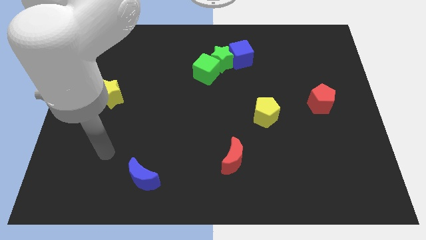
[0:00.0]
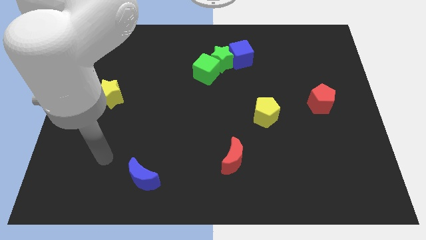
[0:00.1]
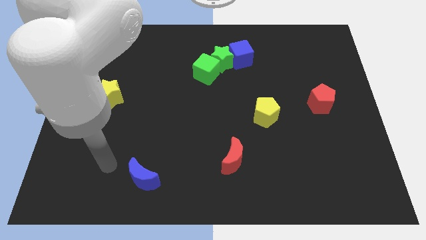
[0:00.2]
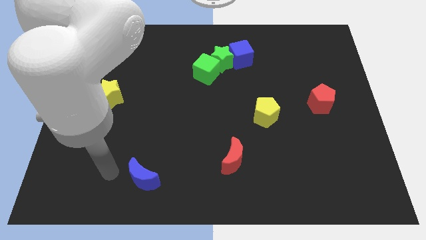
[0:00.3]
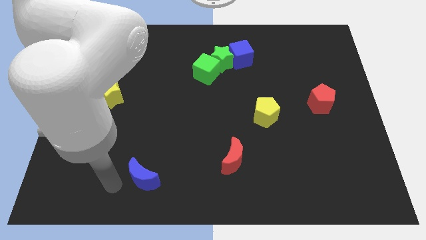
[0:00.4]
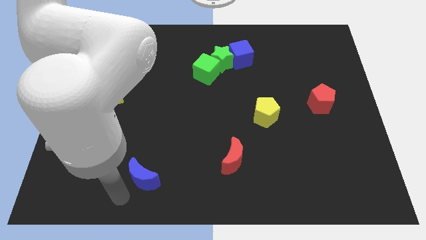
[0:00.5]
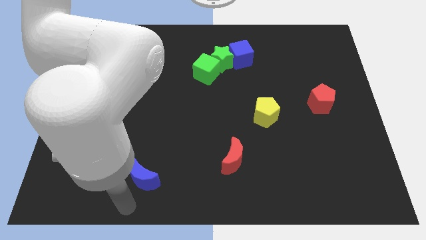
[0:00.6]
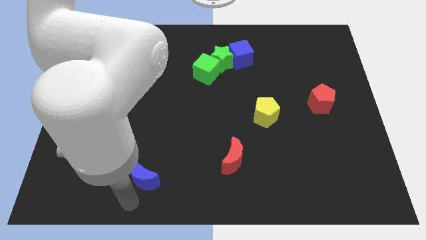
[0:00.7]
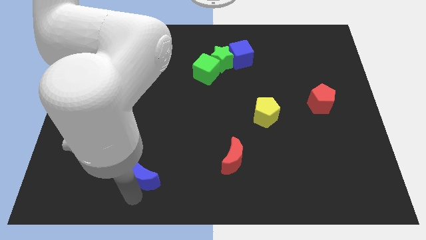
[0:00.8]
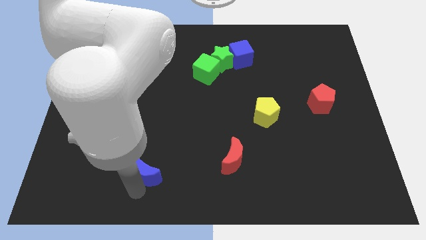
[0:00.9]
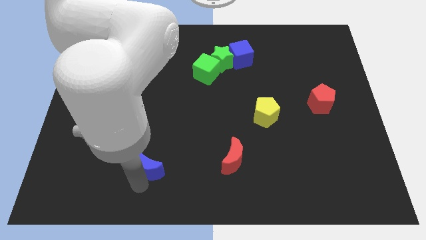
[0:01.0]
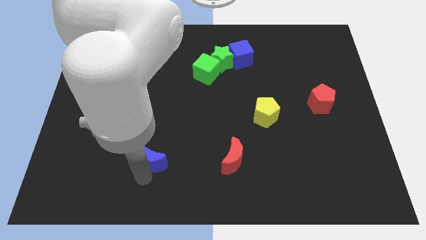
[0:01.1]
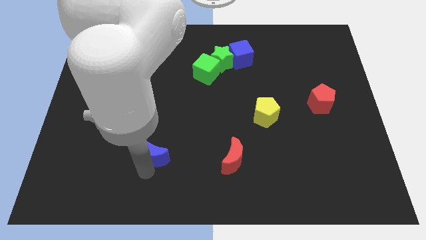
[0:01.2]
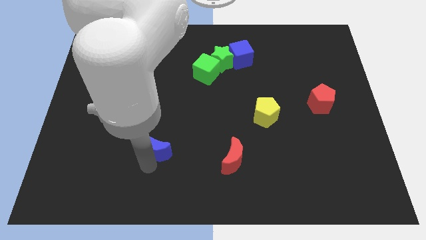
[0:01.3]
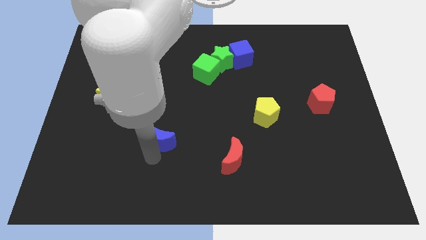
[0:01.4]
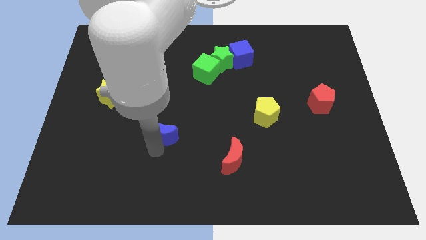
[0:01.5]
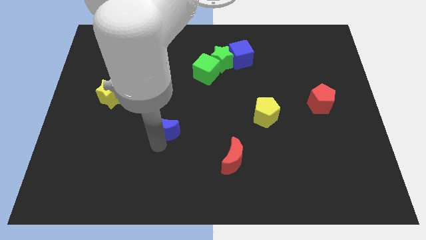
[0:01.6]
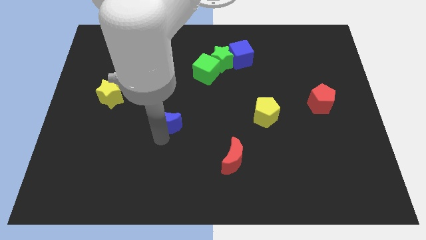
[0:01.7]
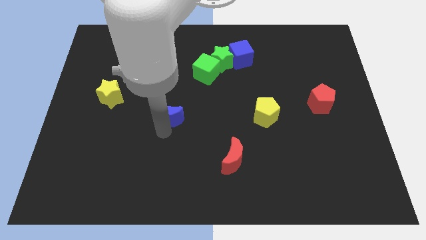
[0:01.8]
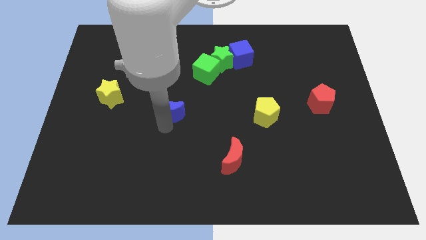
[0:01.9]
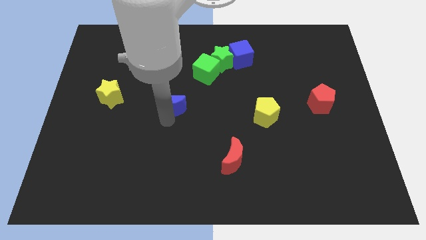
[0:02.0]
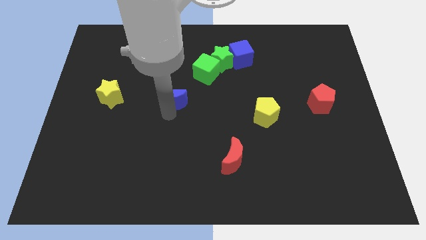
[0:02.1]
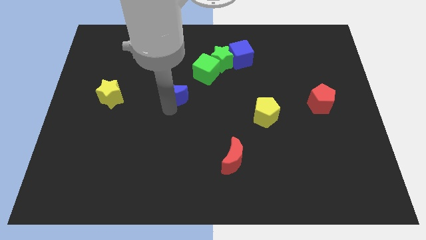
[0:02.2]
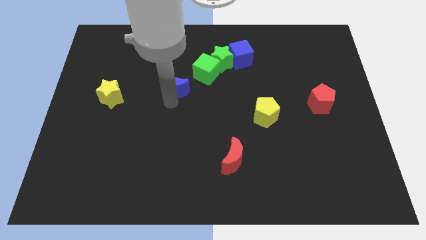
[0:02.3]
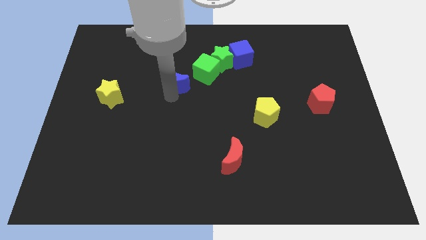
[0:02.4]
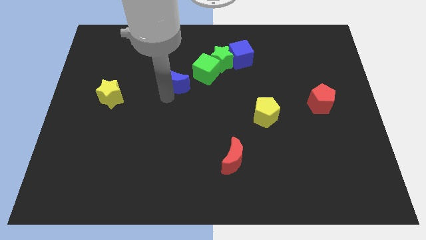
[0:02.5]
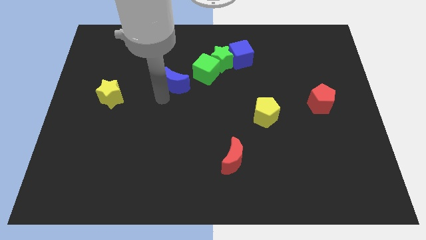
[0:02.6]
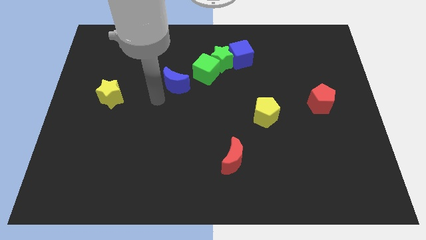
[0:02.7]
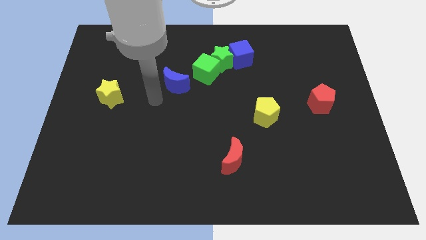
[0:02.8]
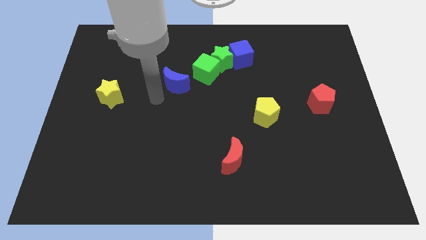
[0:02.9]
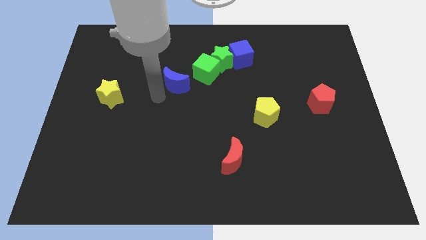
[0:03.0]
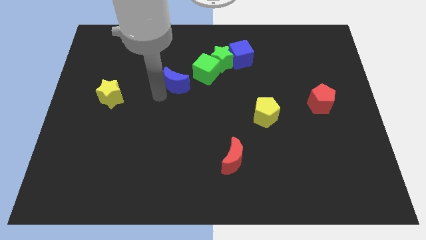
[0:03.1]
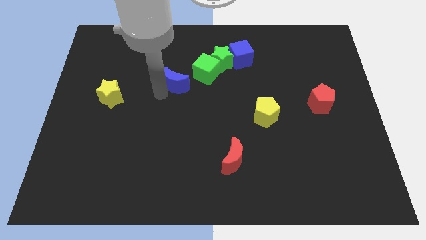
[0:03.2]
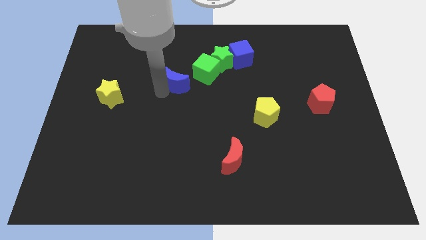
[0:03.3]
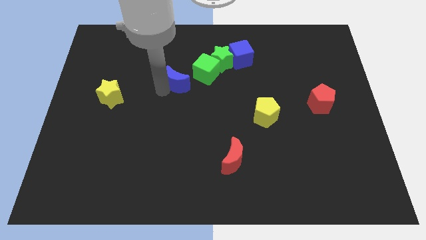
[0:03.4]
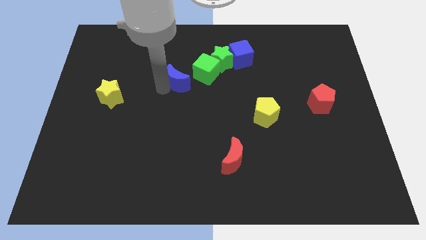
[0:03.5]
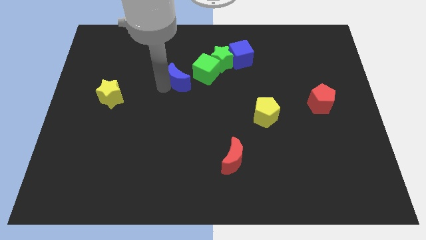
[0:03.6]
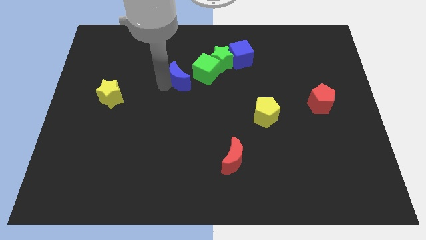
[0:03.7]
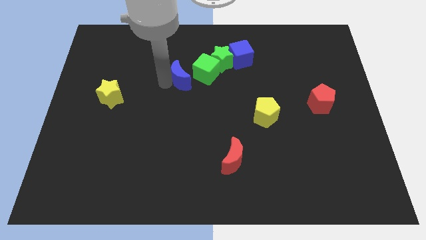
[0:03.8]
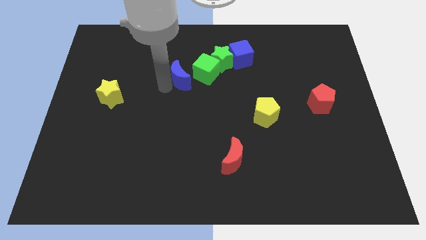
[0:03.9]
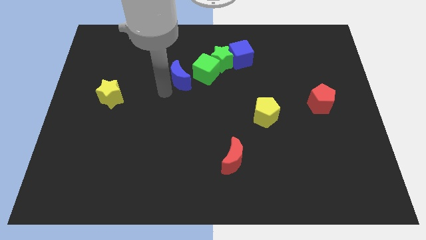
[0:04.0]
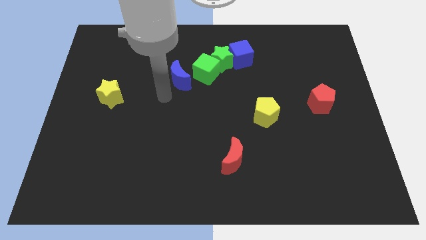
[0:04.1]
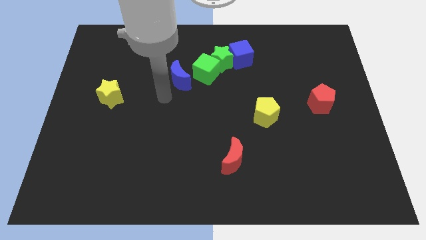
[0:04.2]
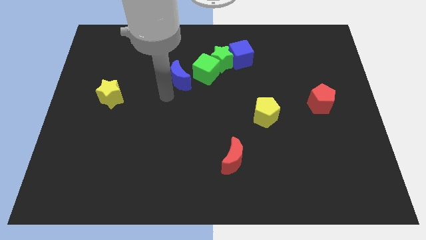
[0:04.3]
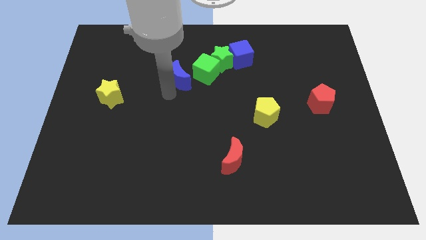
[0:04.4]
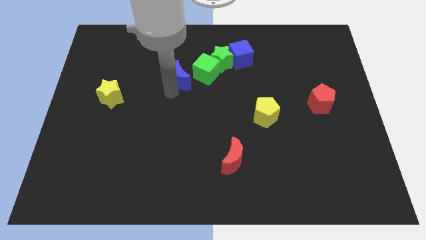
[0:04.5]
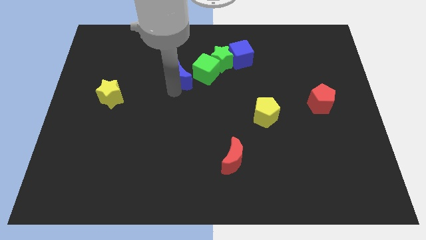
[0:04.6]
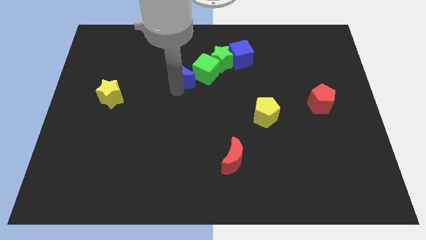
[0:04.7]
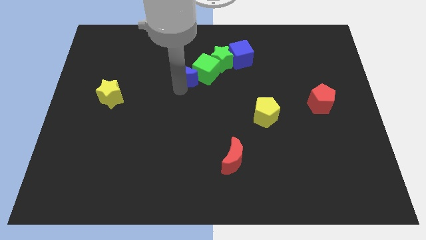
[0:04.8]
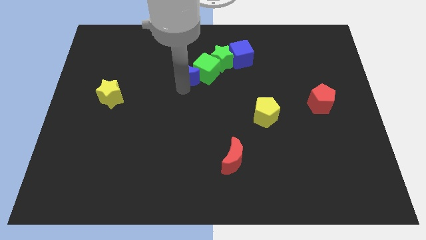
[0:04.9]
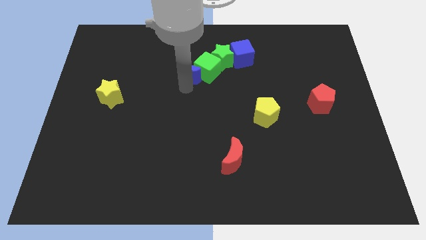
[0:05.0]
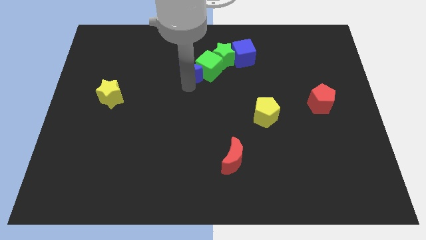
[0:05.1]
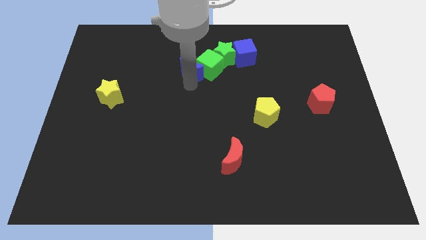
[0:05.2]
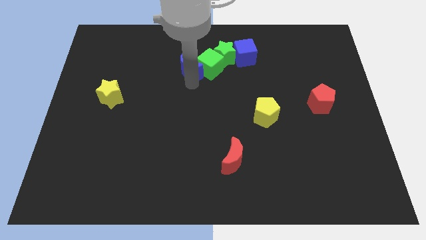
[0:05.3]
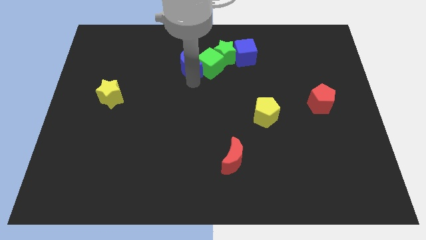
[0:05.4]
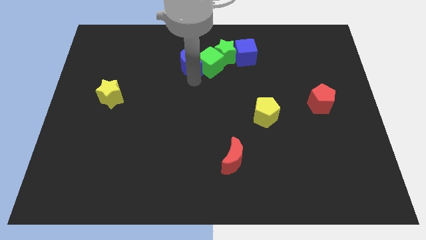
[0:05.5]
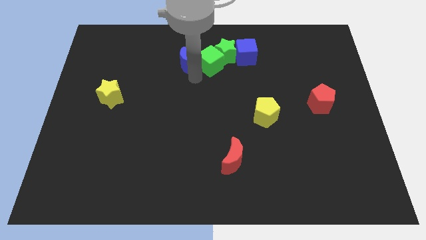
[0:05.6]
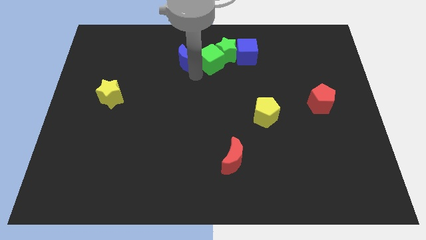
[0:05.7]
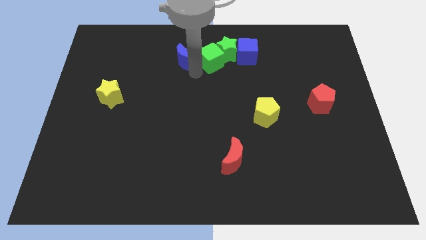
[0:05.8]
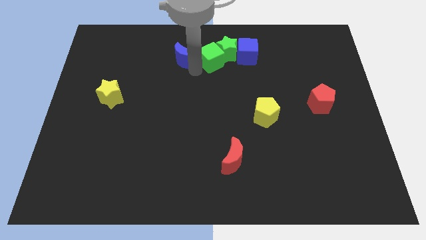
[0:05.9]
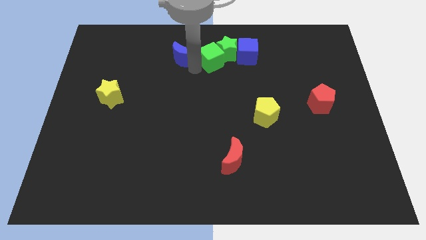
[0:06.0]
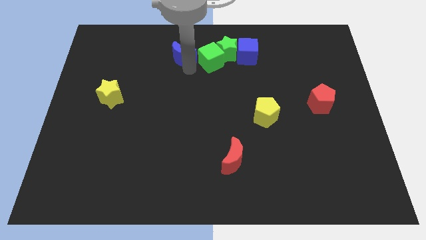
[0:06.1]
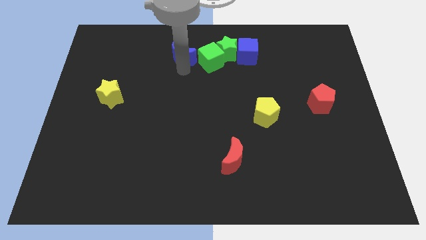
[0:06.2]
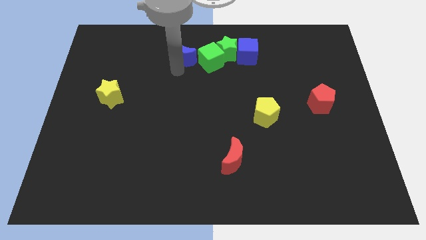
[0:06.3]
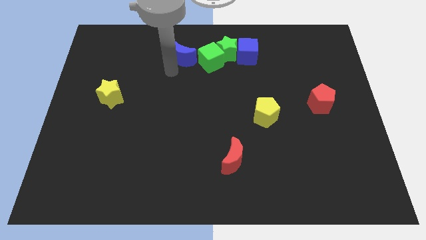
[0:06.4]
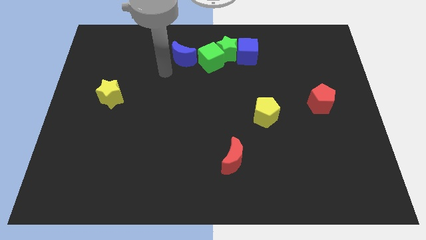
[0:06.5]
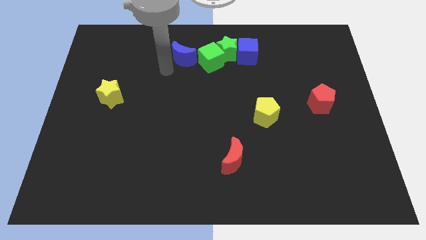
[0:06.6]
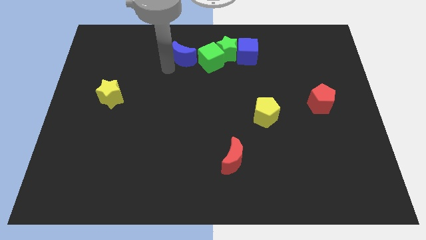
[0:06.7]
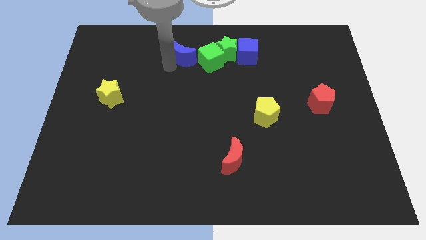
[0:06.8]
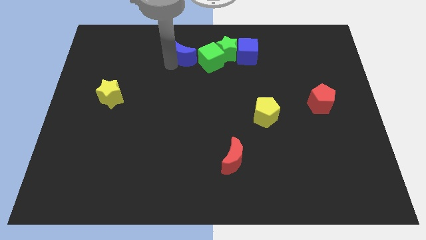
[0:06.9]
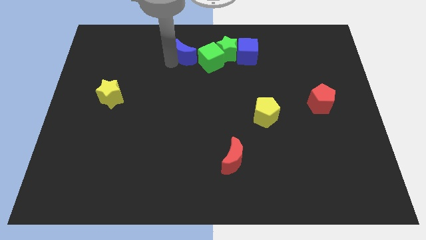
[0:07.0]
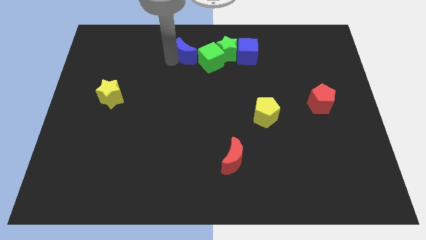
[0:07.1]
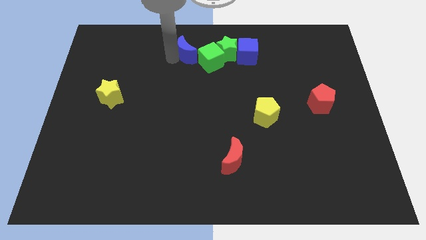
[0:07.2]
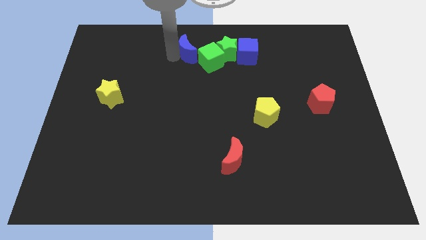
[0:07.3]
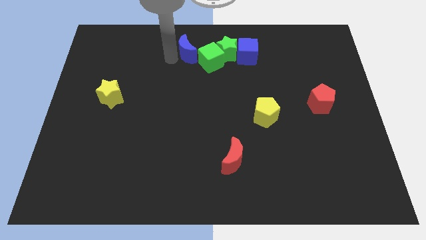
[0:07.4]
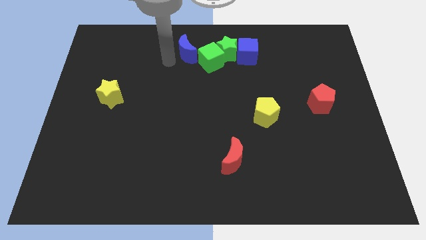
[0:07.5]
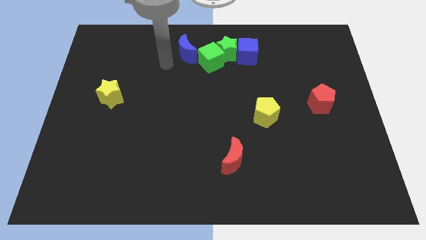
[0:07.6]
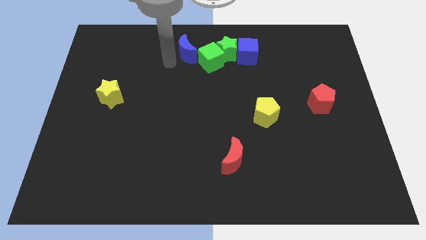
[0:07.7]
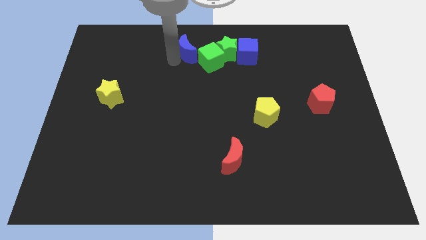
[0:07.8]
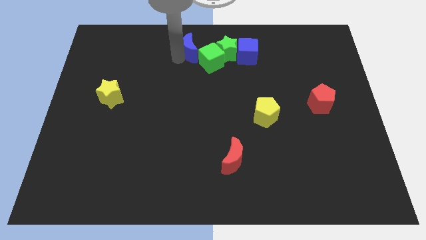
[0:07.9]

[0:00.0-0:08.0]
slide the blue moon to the top
